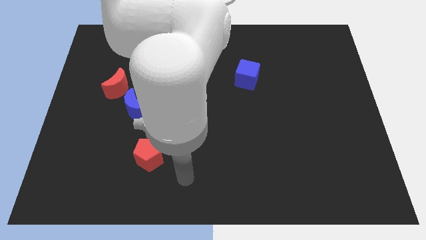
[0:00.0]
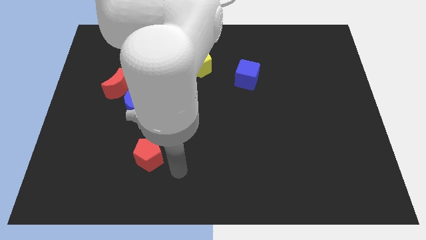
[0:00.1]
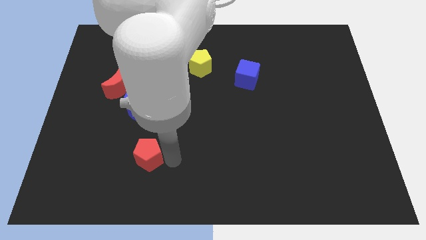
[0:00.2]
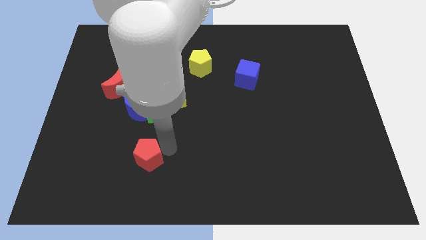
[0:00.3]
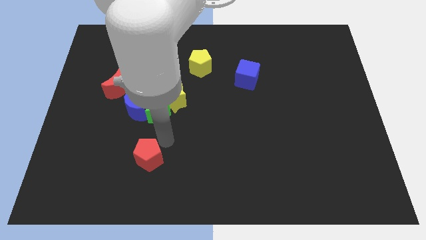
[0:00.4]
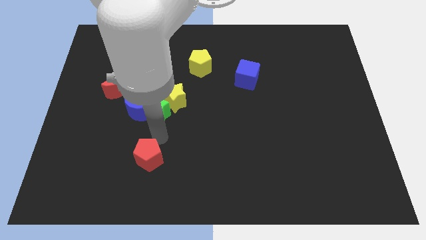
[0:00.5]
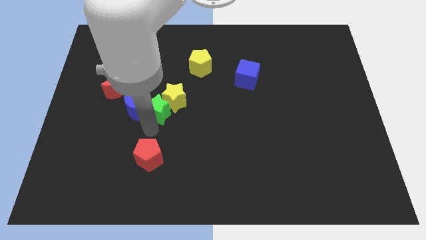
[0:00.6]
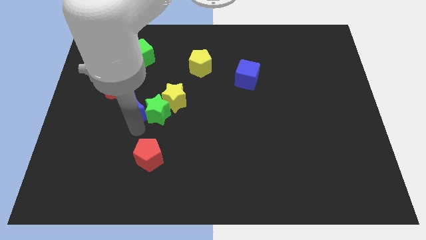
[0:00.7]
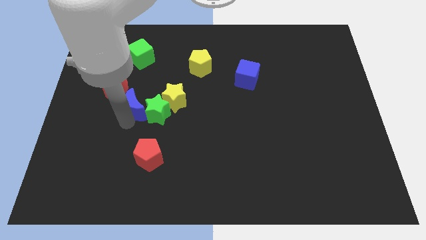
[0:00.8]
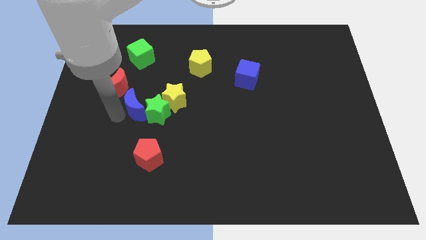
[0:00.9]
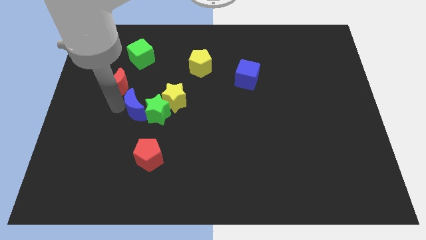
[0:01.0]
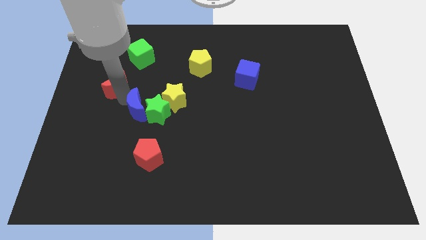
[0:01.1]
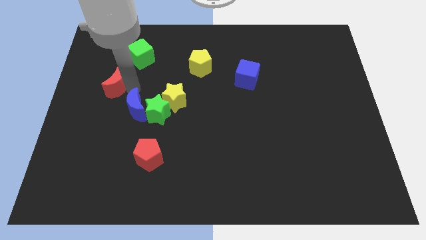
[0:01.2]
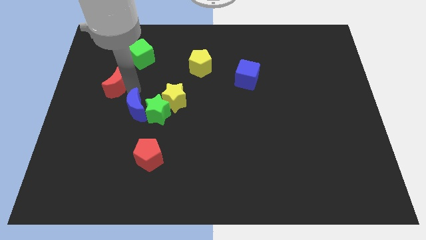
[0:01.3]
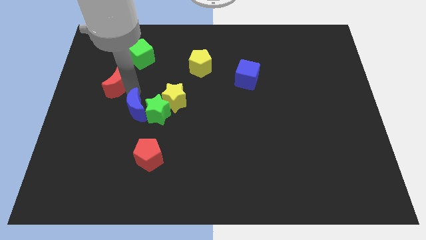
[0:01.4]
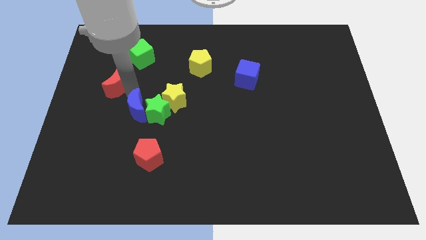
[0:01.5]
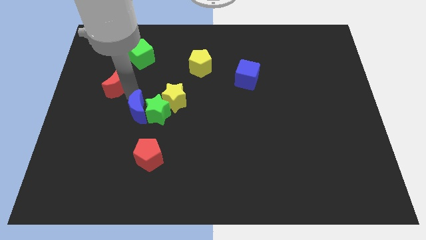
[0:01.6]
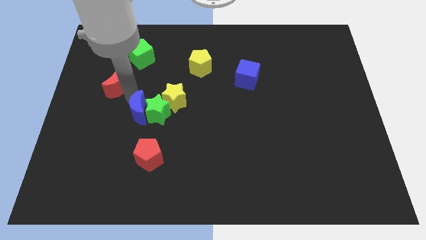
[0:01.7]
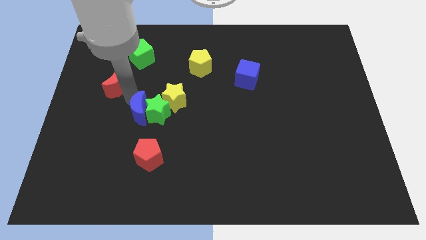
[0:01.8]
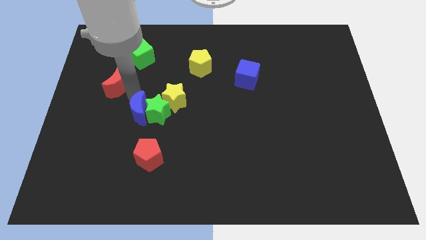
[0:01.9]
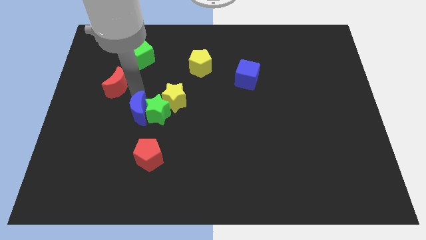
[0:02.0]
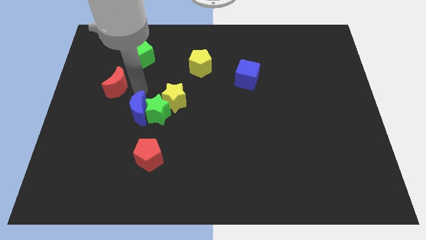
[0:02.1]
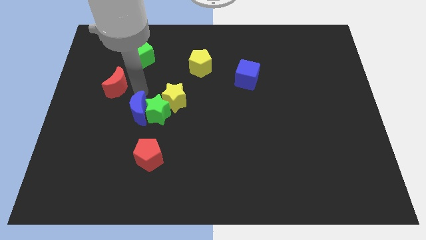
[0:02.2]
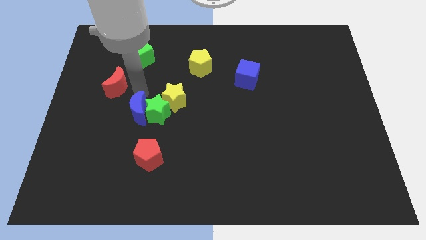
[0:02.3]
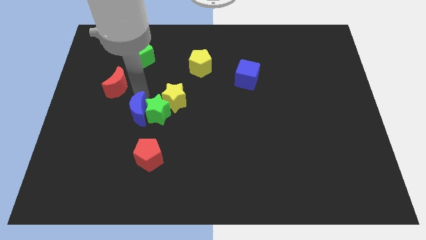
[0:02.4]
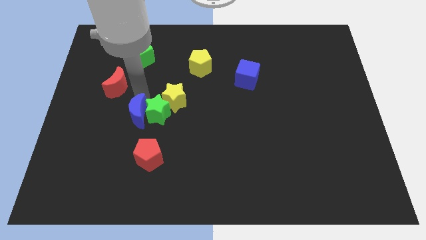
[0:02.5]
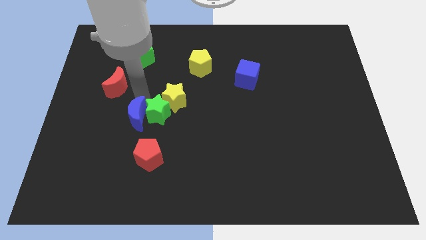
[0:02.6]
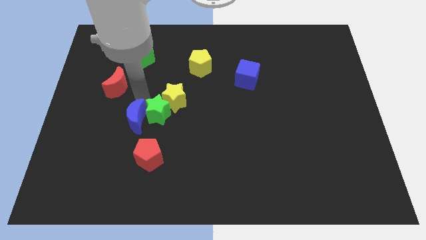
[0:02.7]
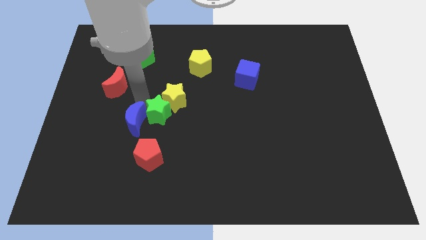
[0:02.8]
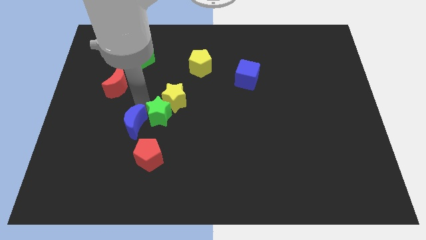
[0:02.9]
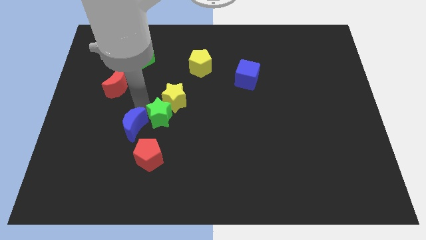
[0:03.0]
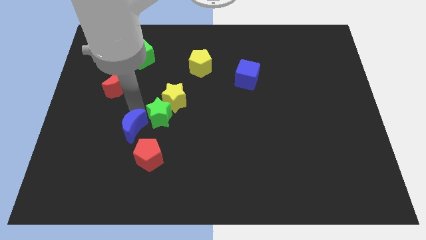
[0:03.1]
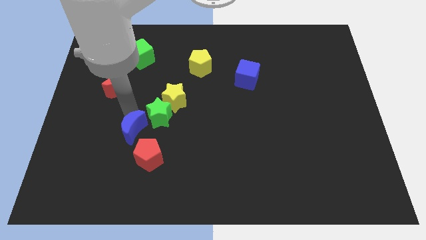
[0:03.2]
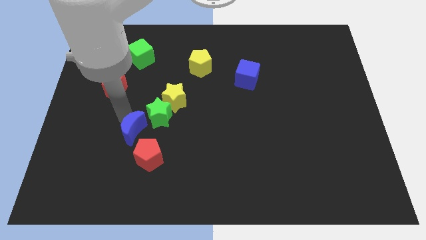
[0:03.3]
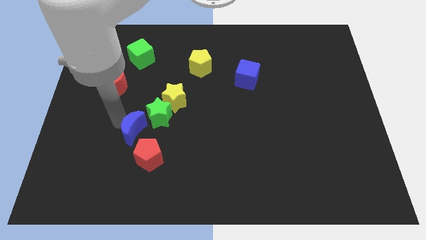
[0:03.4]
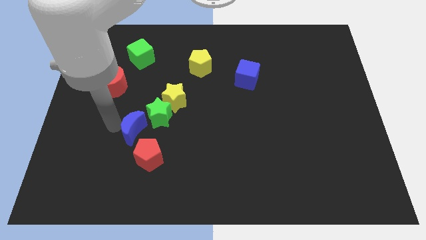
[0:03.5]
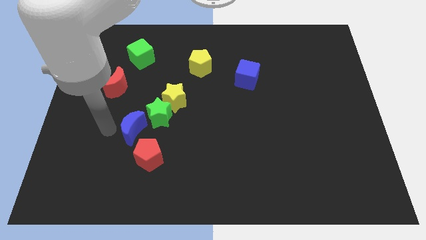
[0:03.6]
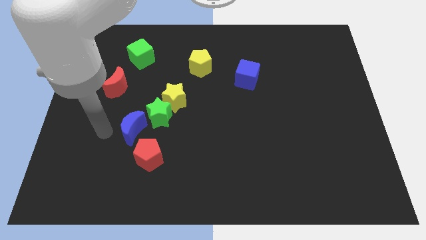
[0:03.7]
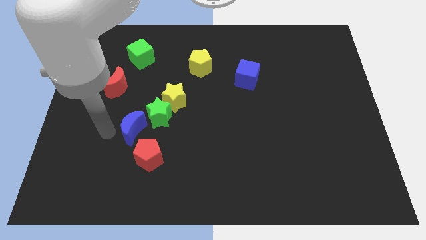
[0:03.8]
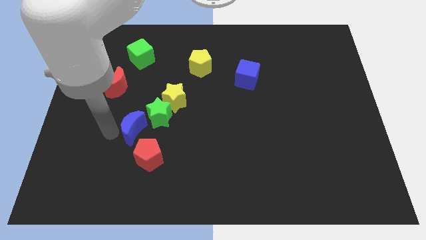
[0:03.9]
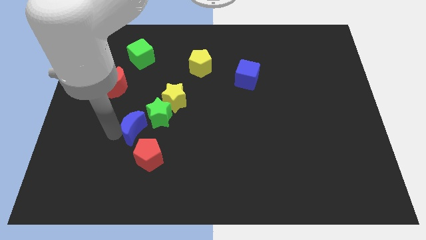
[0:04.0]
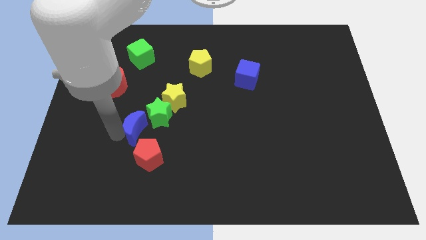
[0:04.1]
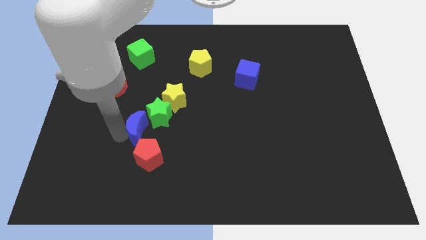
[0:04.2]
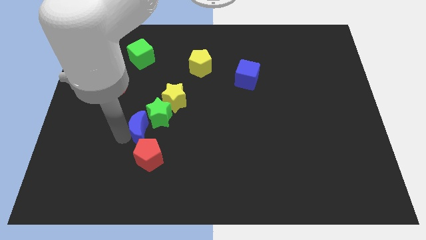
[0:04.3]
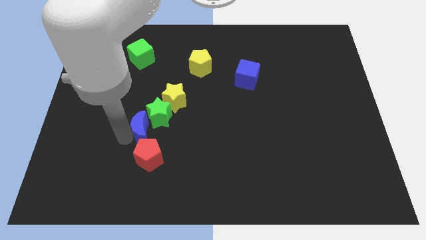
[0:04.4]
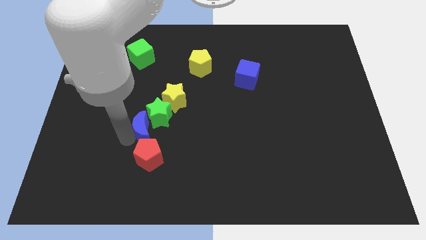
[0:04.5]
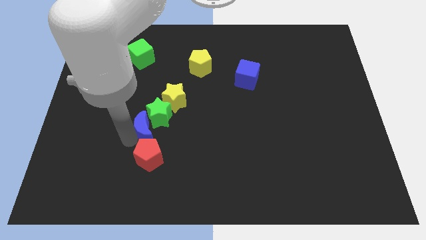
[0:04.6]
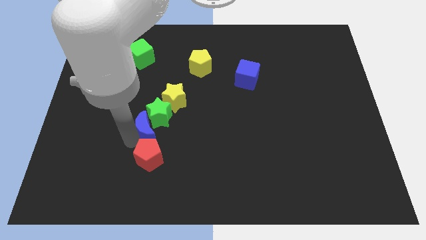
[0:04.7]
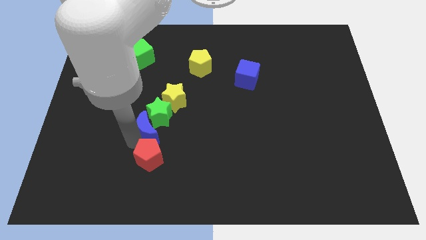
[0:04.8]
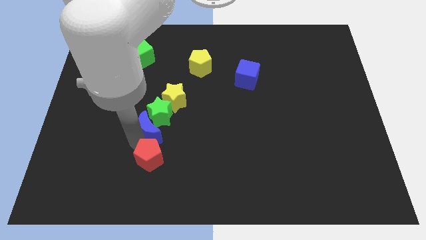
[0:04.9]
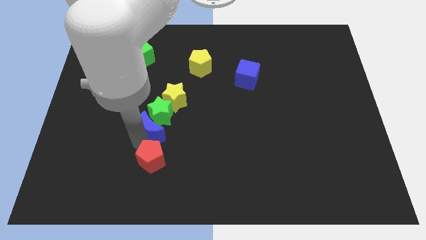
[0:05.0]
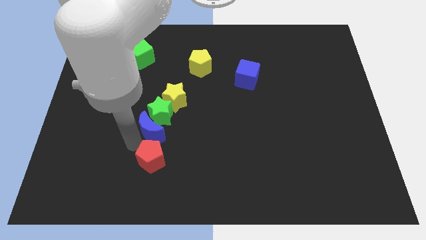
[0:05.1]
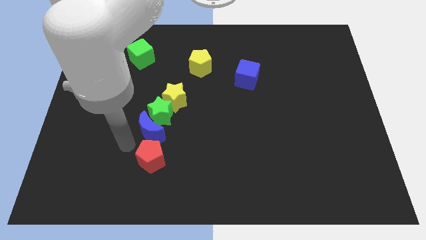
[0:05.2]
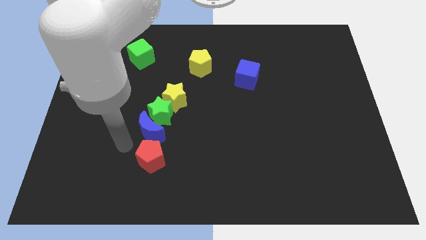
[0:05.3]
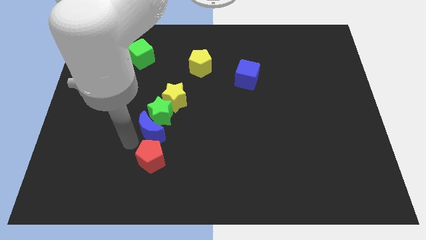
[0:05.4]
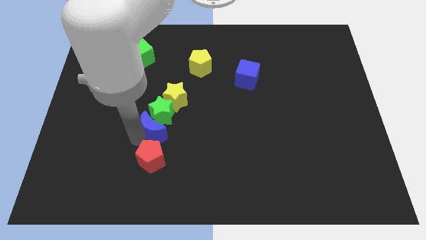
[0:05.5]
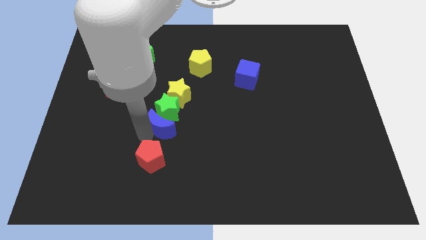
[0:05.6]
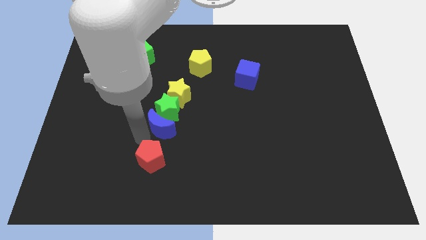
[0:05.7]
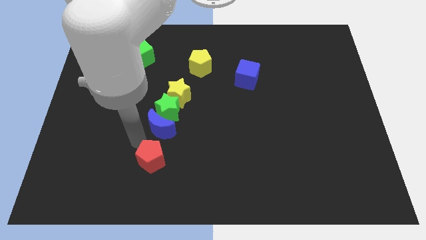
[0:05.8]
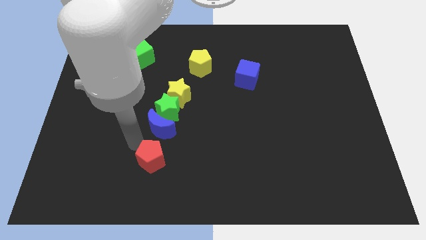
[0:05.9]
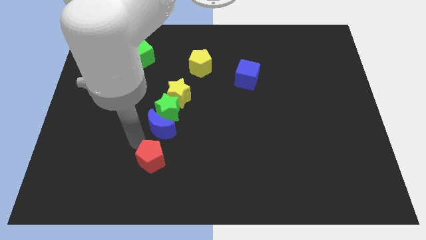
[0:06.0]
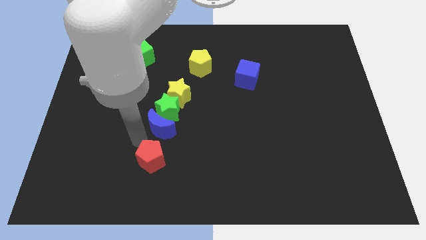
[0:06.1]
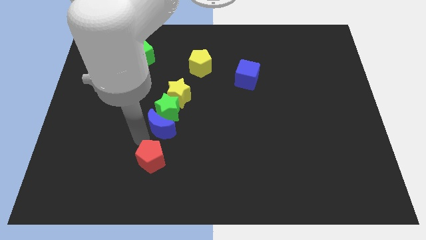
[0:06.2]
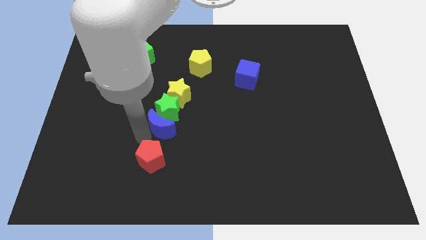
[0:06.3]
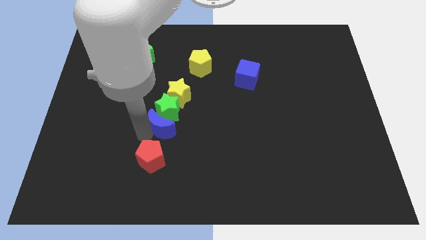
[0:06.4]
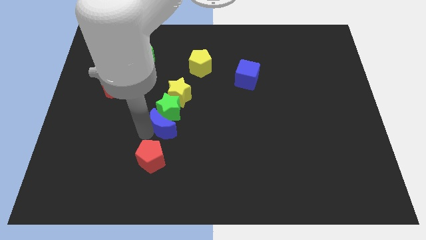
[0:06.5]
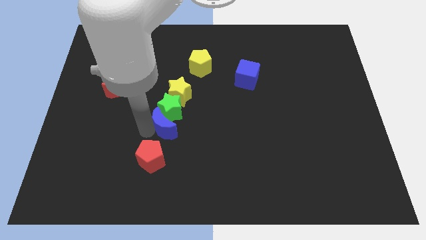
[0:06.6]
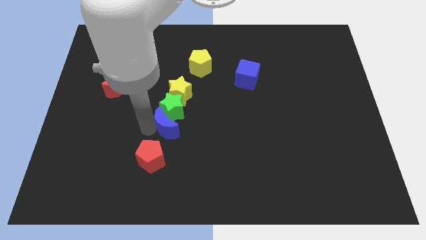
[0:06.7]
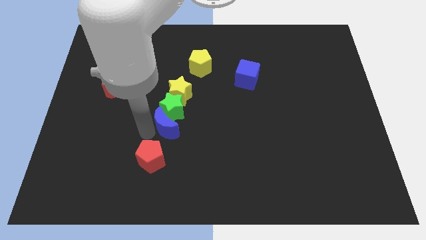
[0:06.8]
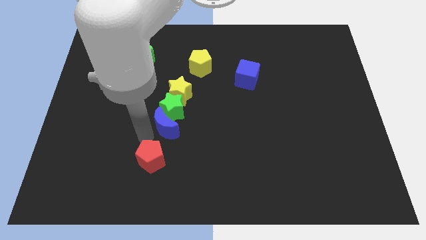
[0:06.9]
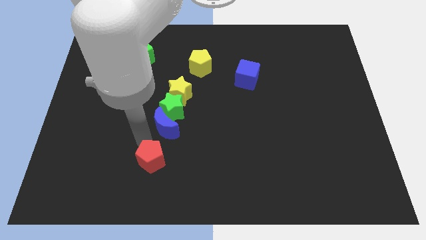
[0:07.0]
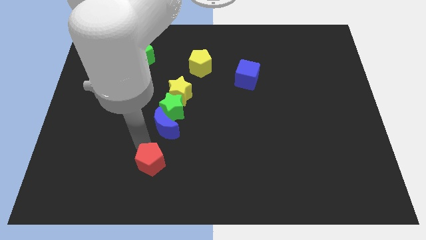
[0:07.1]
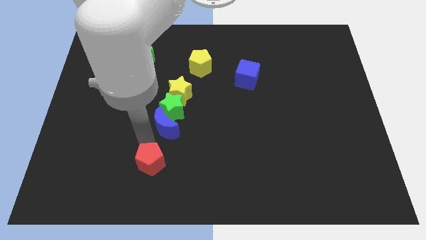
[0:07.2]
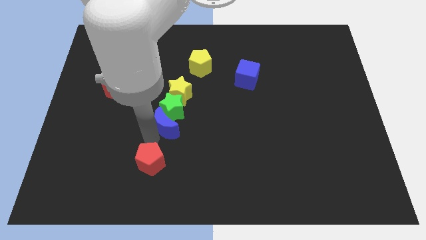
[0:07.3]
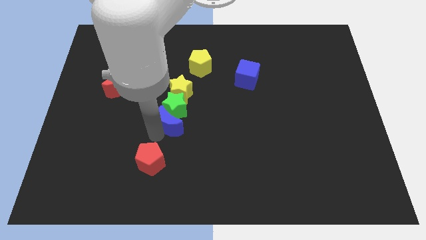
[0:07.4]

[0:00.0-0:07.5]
put the blue moon to the middle
